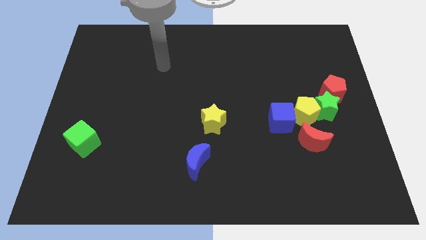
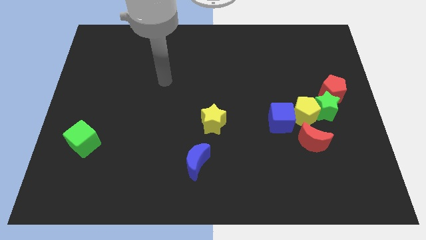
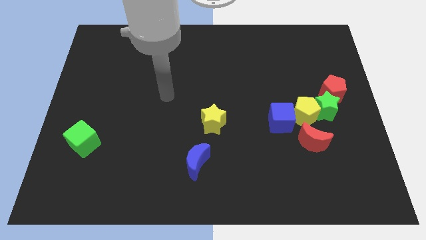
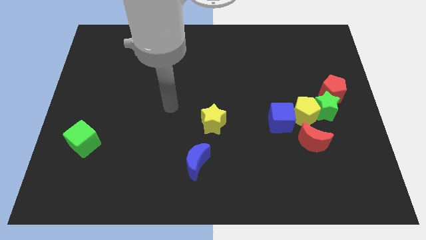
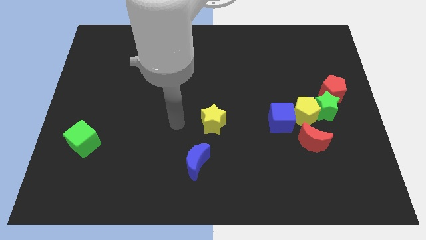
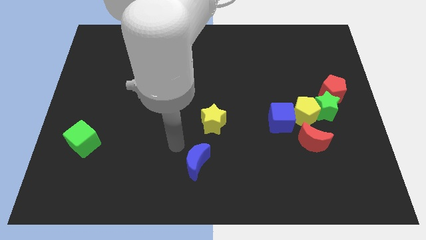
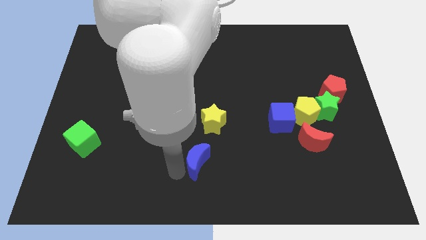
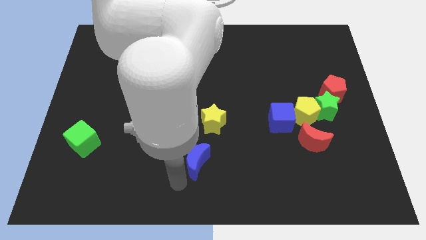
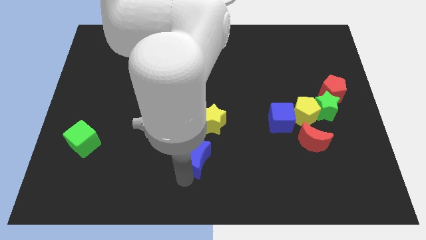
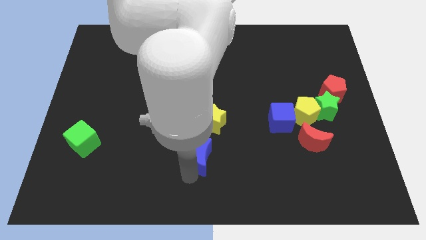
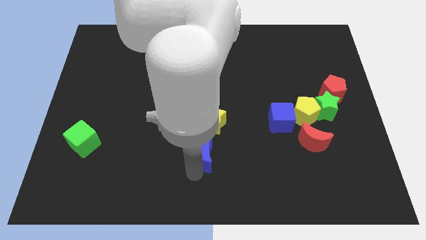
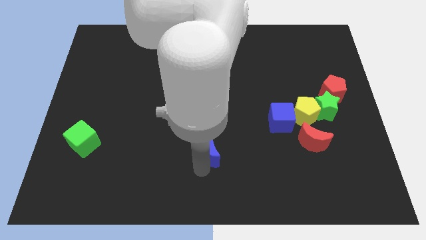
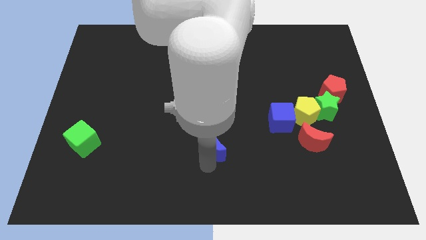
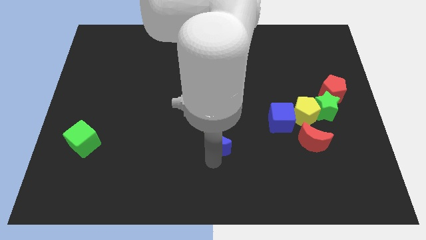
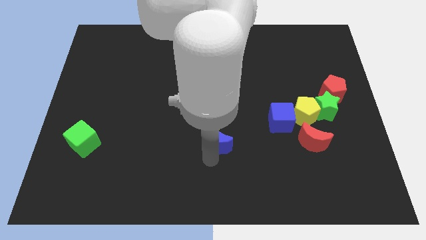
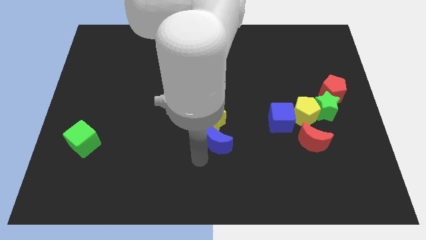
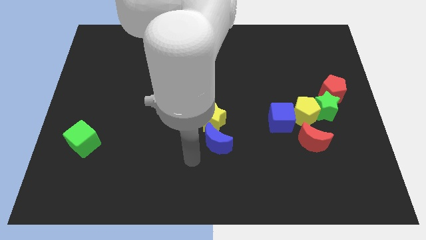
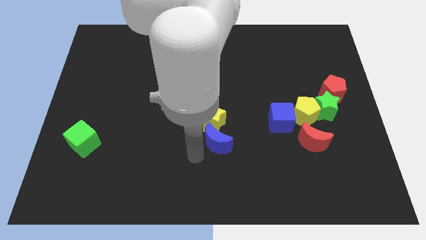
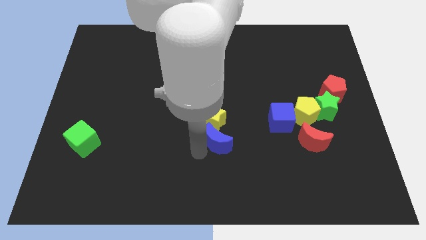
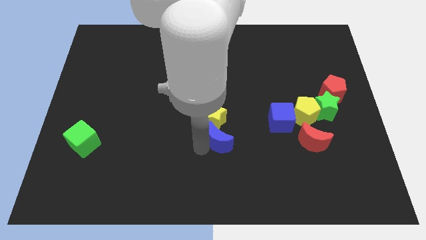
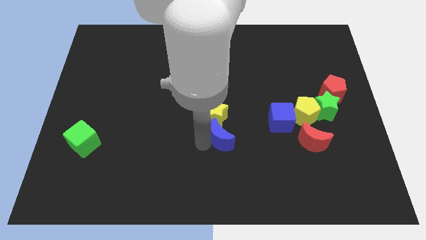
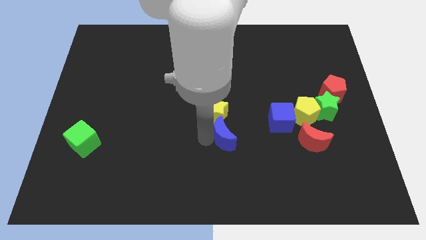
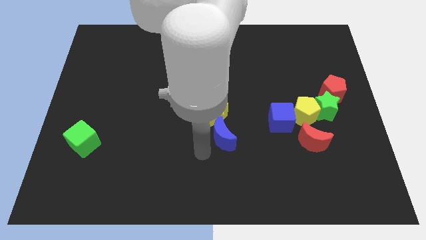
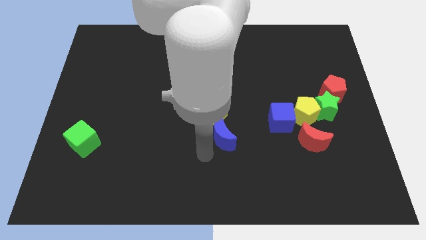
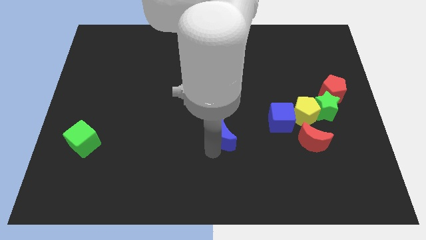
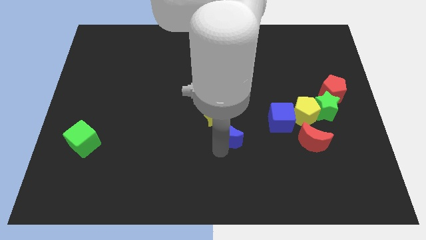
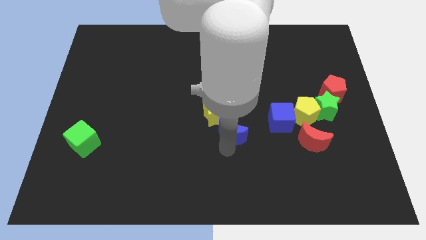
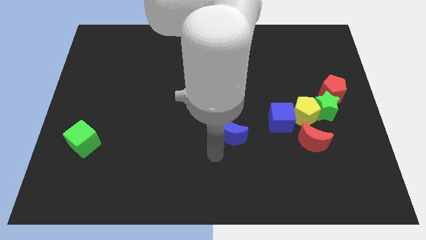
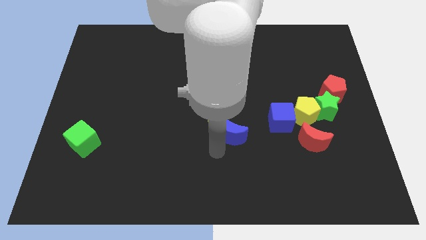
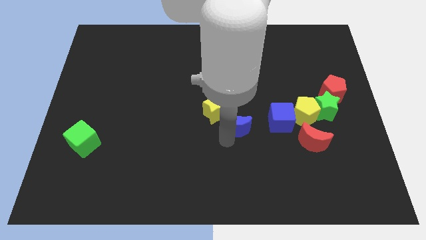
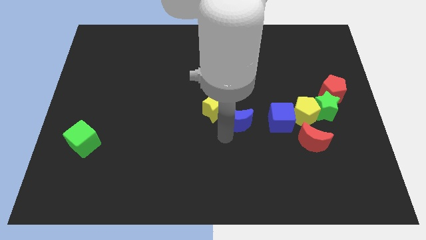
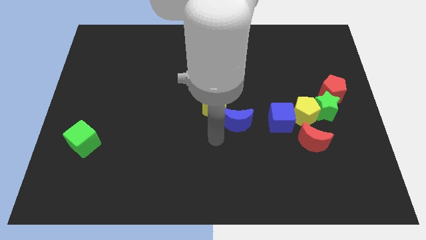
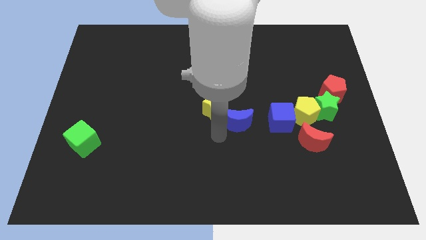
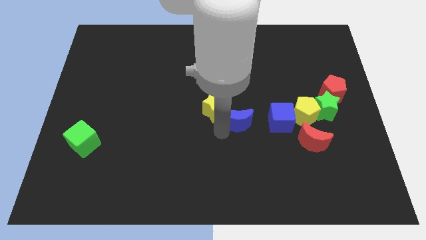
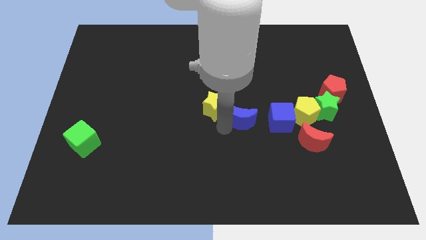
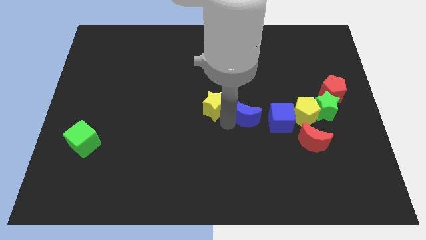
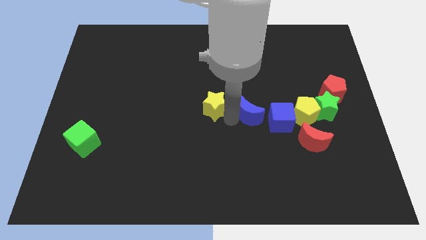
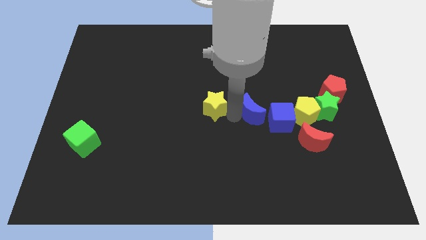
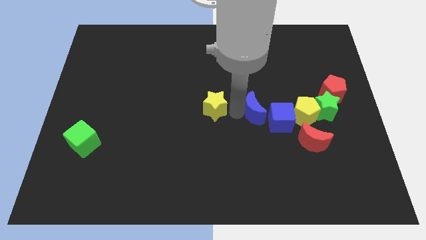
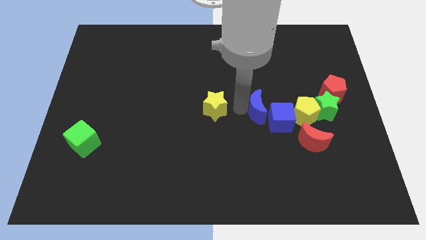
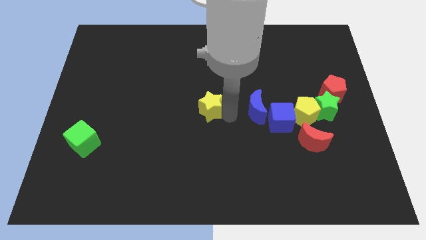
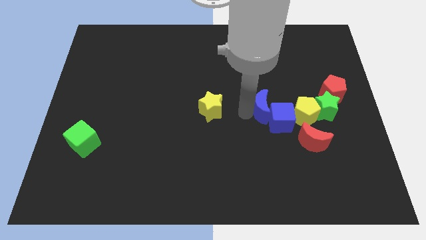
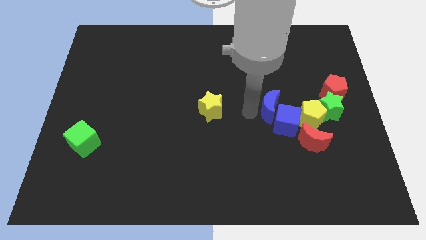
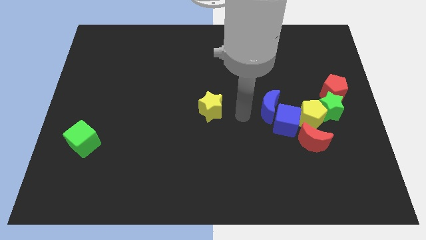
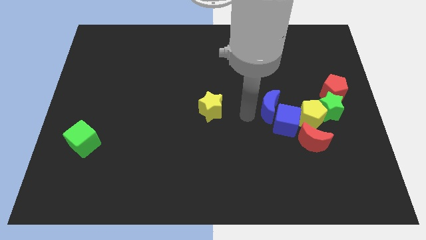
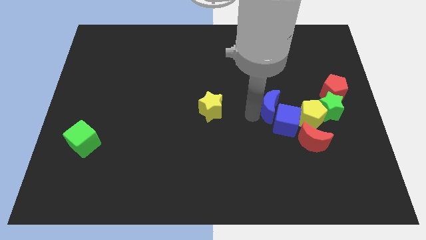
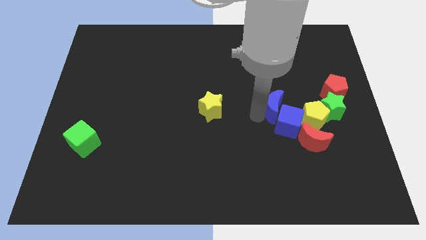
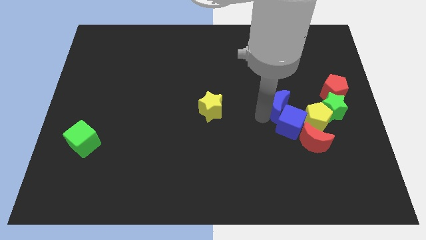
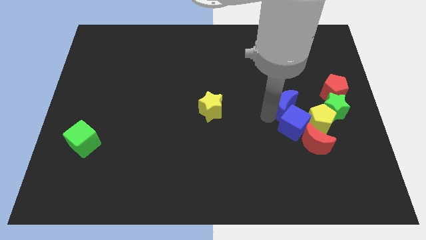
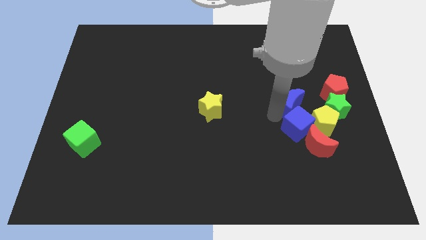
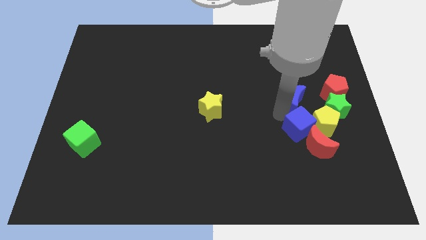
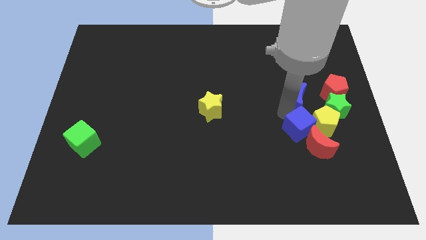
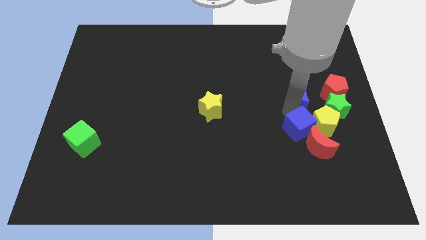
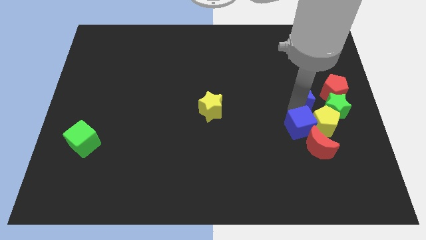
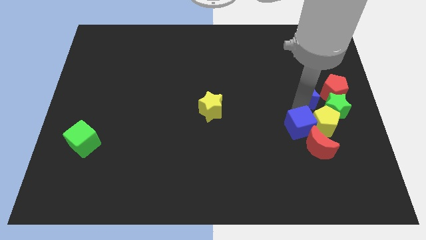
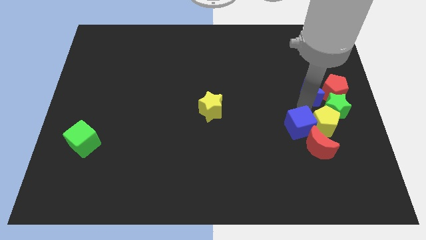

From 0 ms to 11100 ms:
put the blue moon to the red pentagon

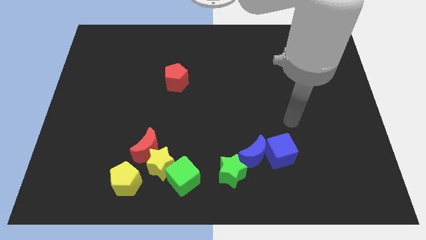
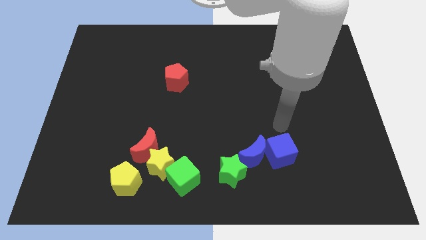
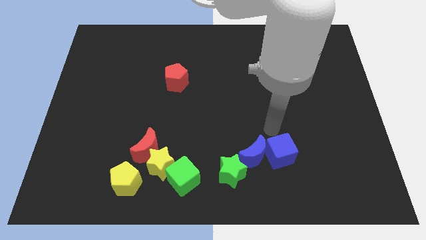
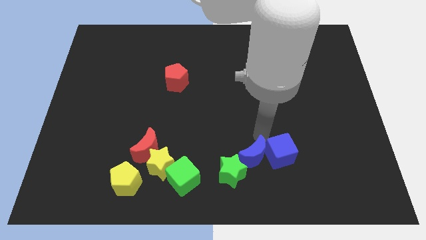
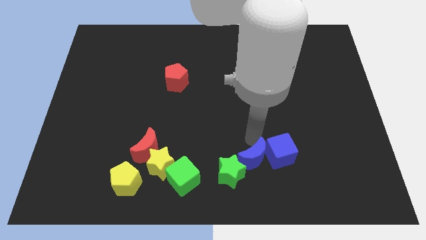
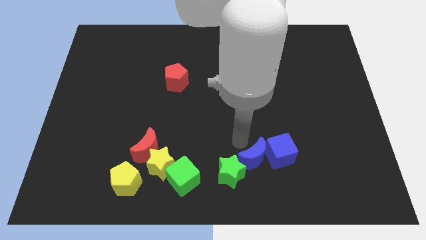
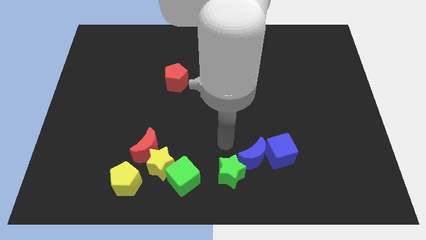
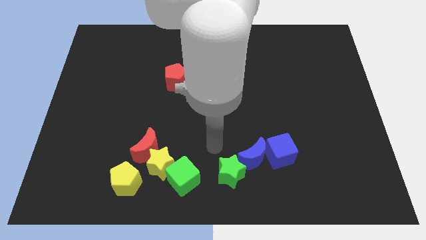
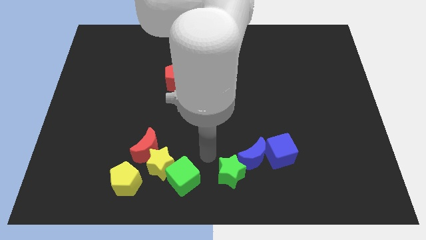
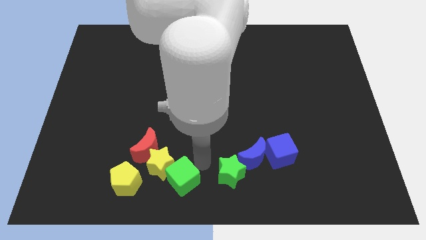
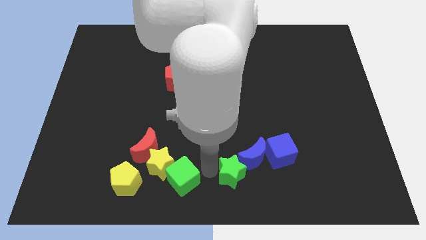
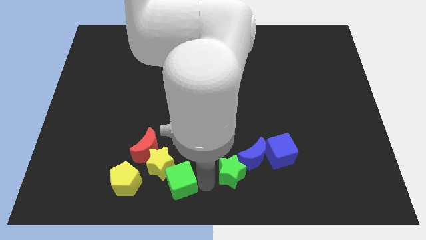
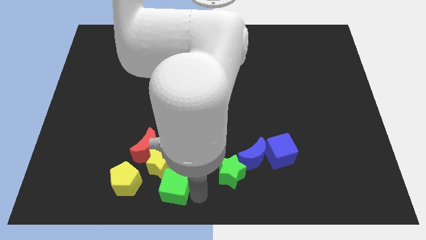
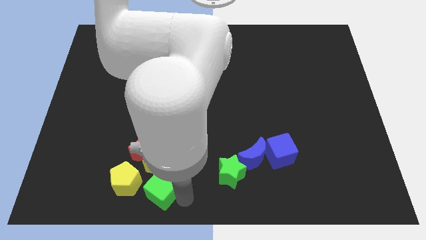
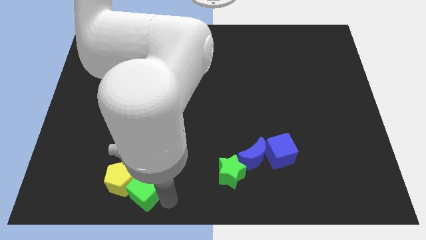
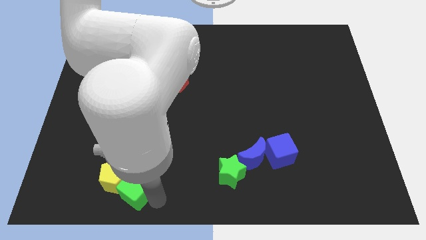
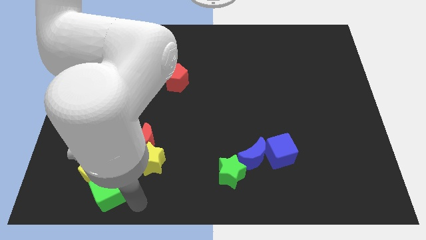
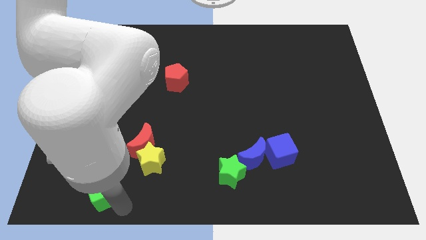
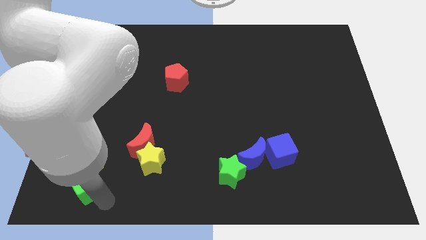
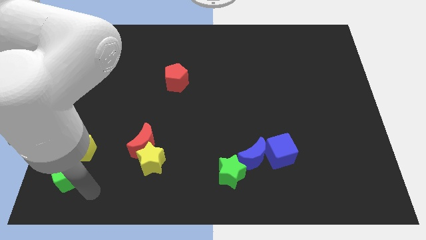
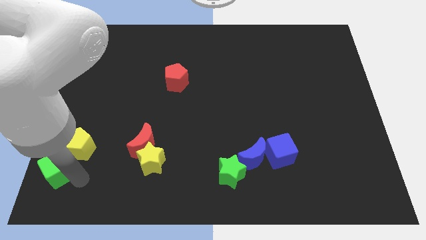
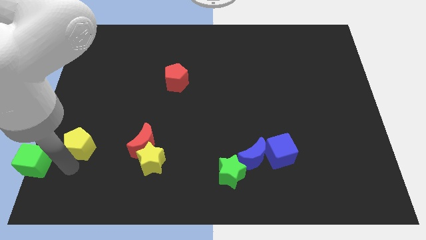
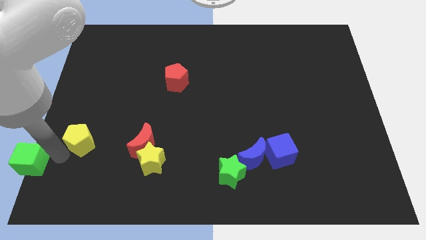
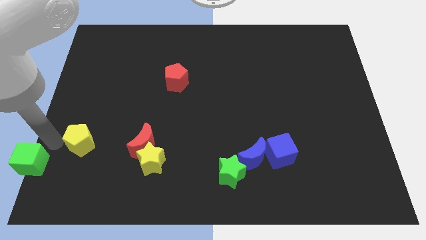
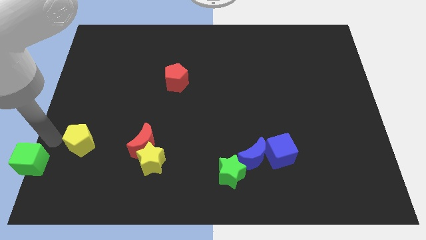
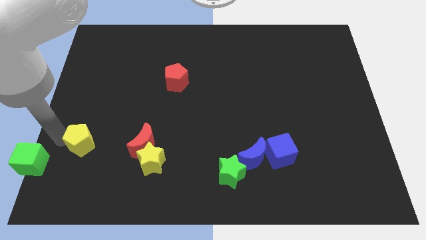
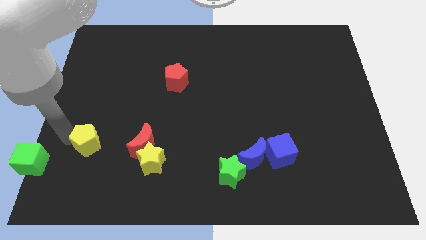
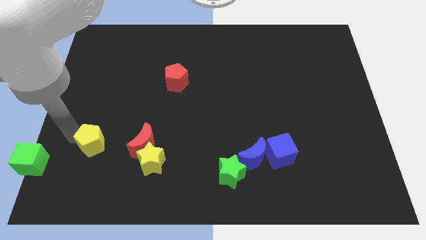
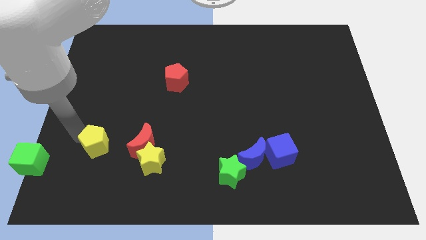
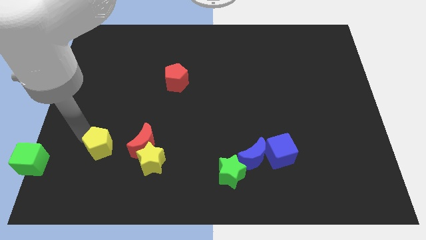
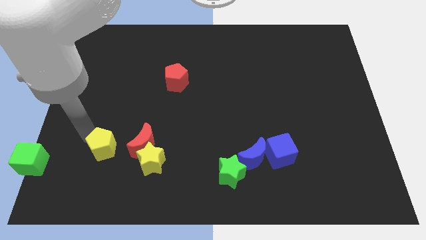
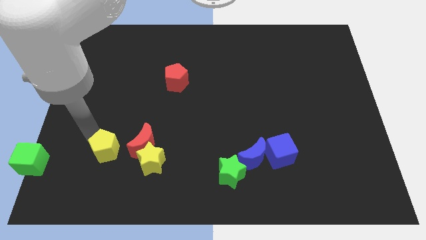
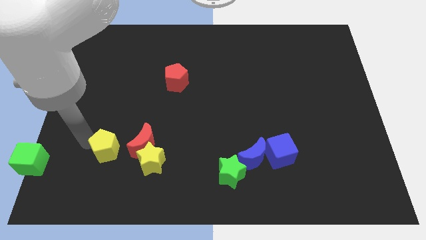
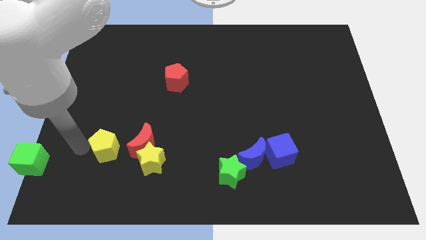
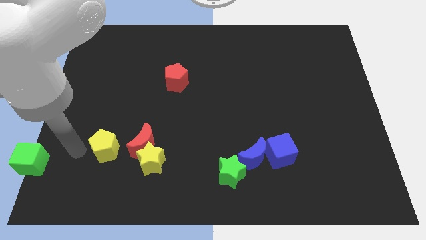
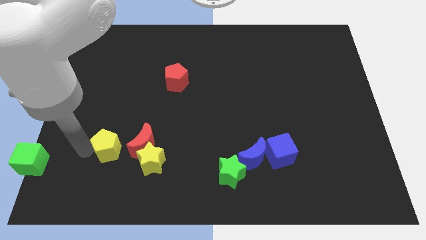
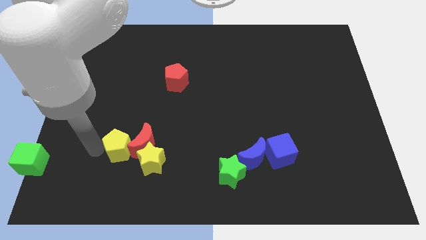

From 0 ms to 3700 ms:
move the yellow pentagon next to the red moon
